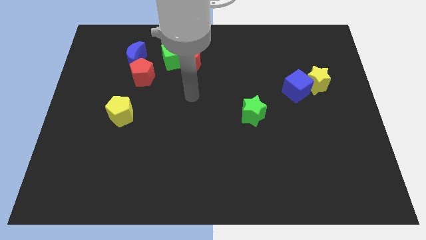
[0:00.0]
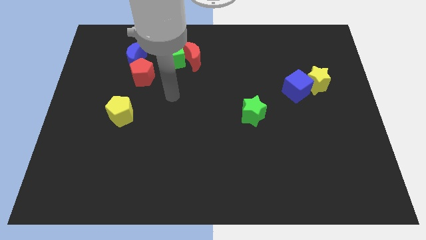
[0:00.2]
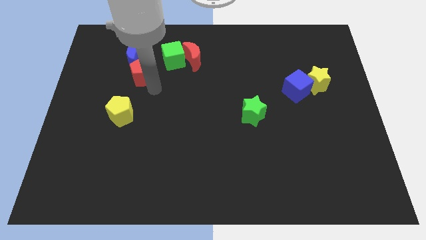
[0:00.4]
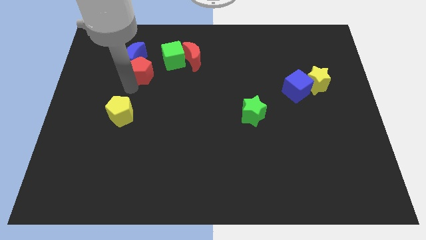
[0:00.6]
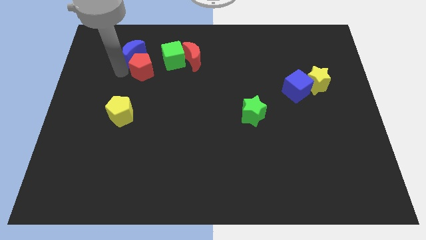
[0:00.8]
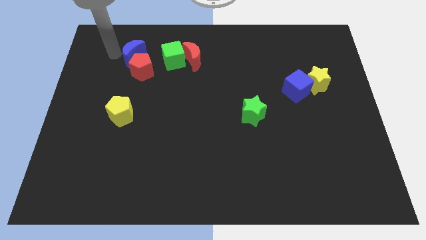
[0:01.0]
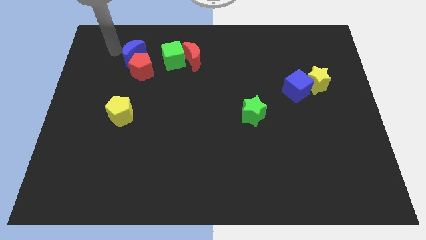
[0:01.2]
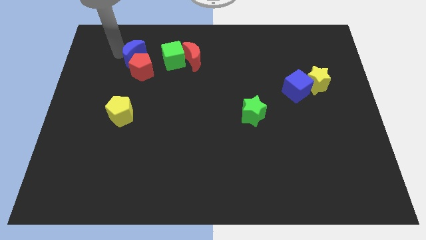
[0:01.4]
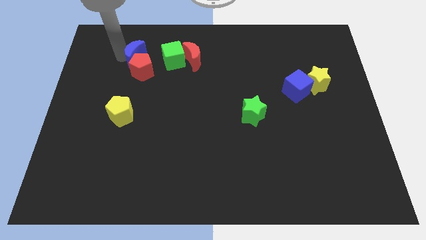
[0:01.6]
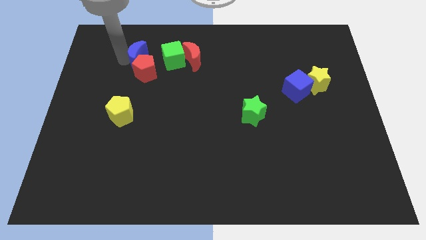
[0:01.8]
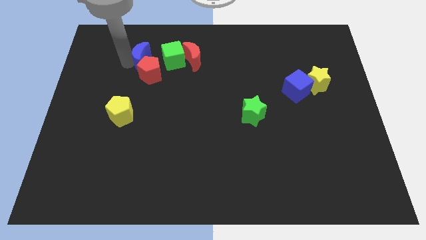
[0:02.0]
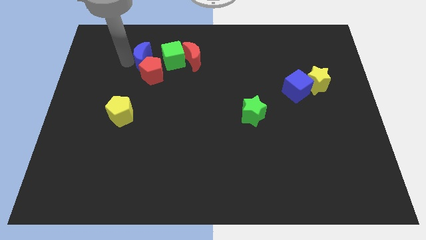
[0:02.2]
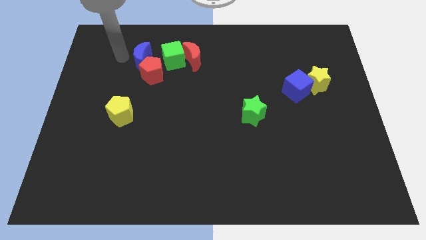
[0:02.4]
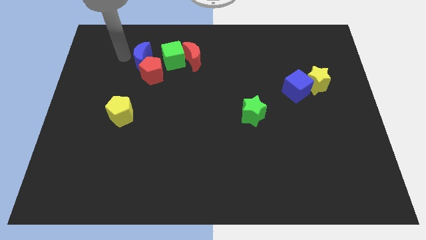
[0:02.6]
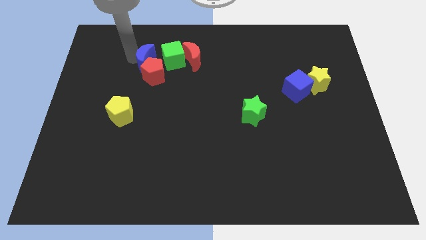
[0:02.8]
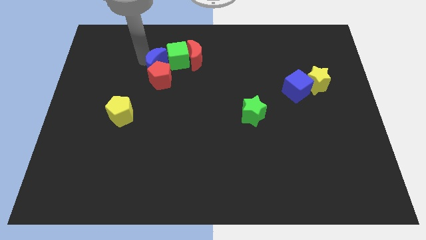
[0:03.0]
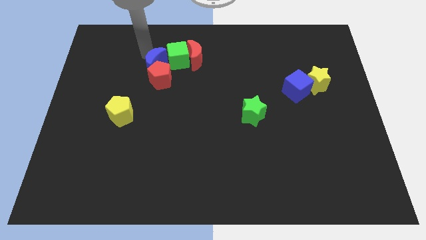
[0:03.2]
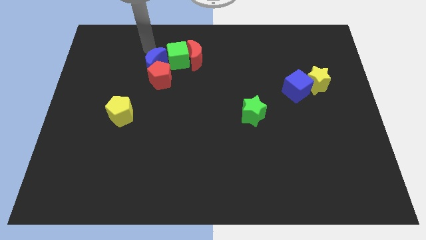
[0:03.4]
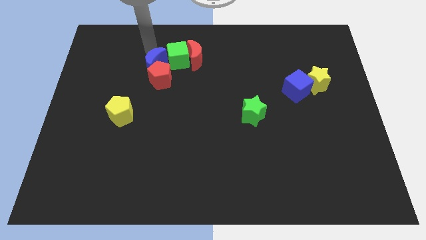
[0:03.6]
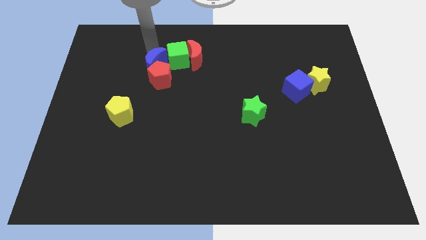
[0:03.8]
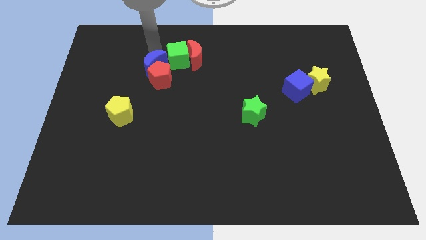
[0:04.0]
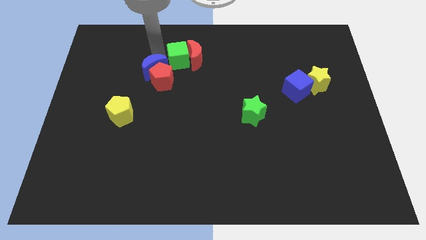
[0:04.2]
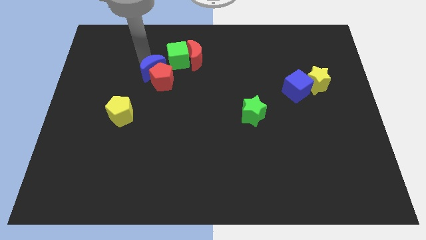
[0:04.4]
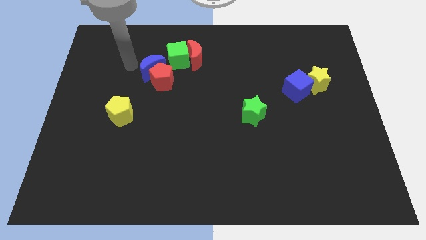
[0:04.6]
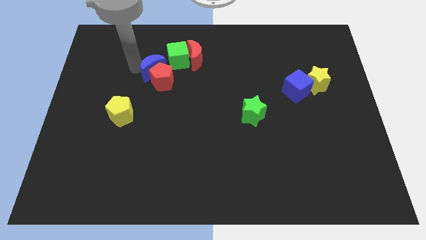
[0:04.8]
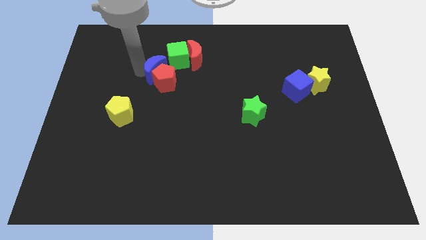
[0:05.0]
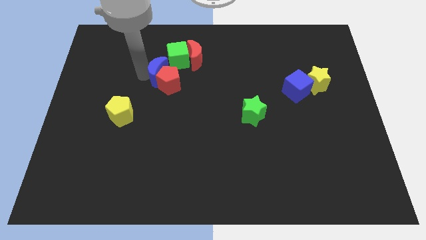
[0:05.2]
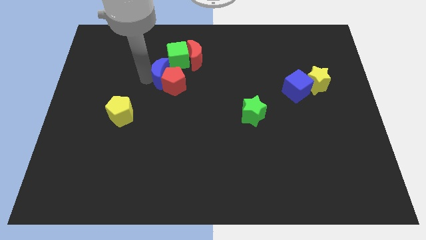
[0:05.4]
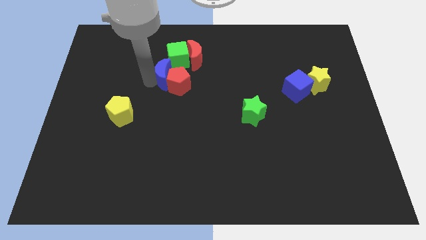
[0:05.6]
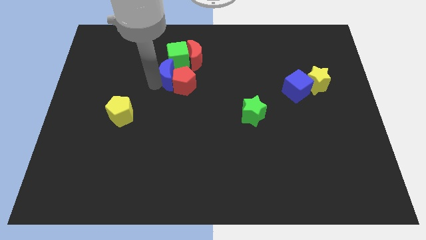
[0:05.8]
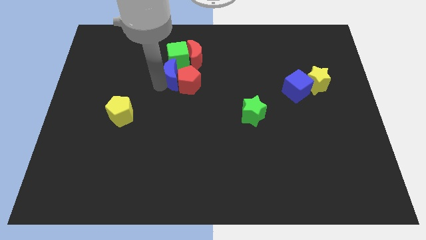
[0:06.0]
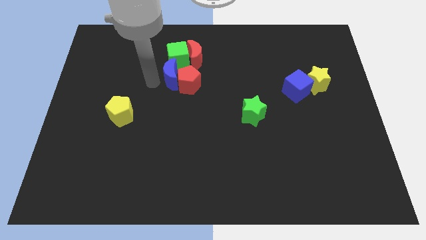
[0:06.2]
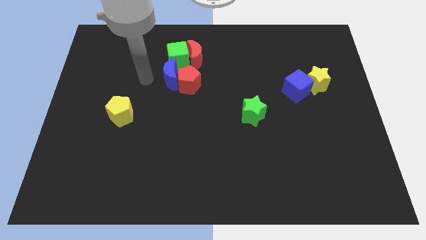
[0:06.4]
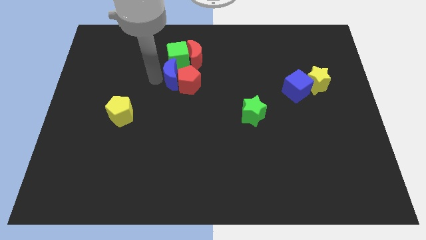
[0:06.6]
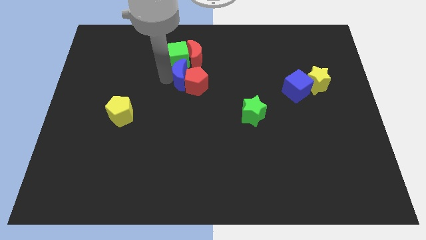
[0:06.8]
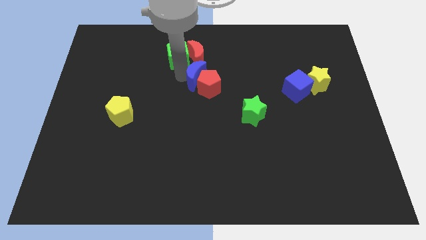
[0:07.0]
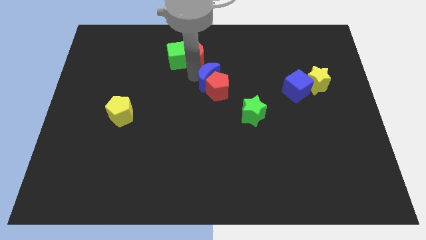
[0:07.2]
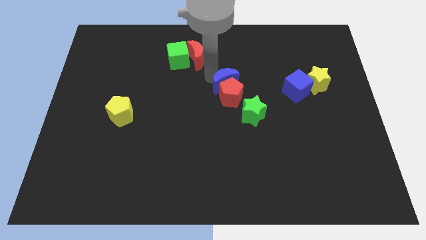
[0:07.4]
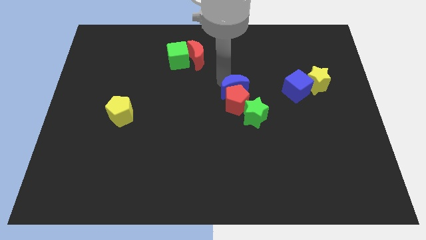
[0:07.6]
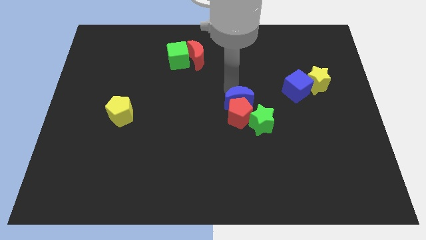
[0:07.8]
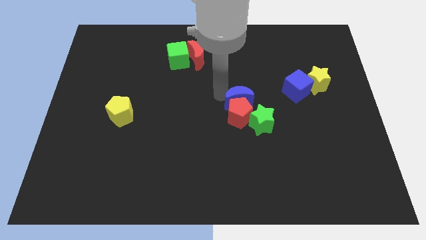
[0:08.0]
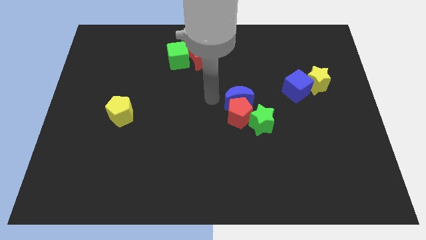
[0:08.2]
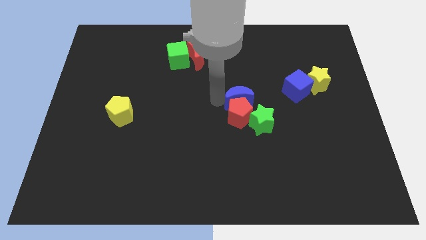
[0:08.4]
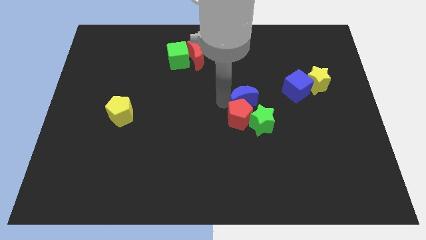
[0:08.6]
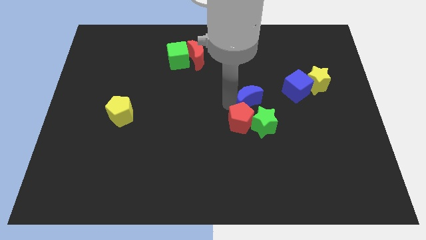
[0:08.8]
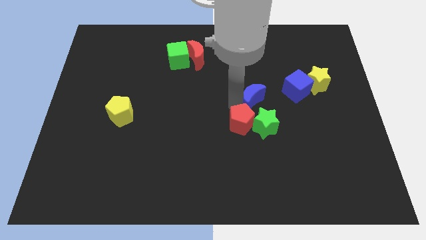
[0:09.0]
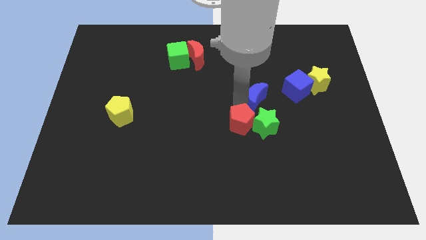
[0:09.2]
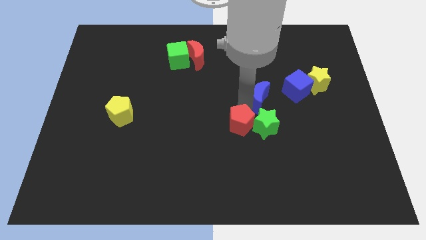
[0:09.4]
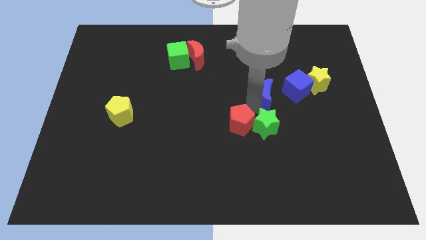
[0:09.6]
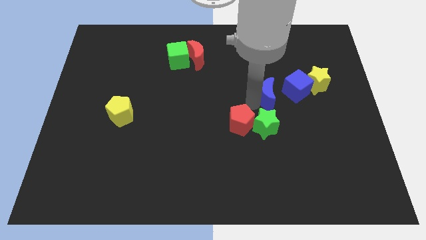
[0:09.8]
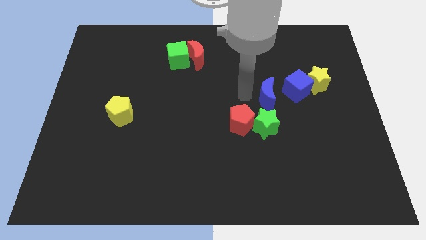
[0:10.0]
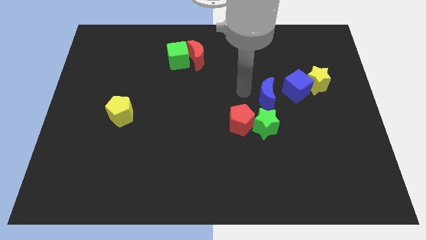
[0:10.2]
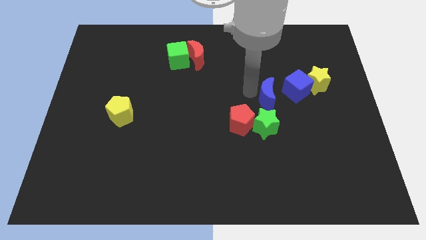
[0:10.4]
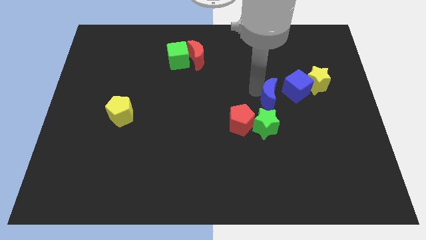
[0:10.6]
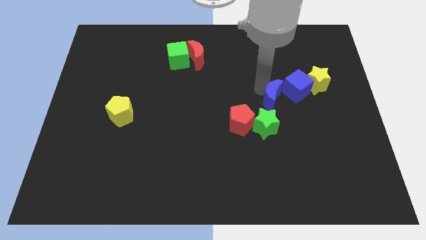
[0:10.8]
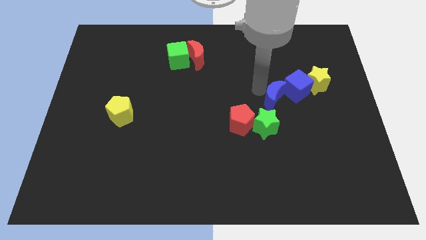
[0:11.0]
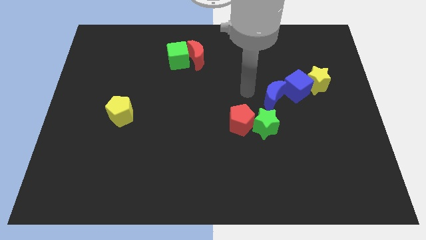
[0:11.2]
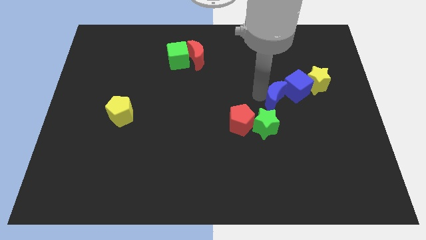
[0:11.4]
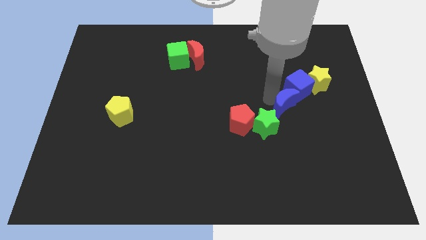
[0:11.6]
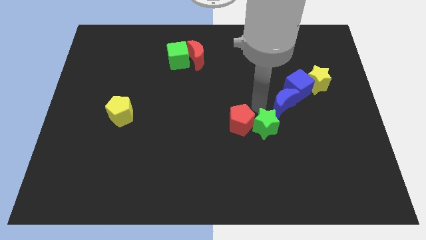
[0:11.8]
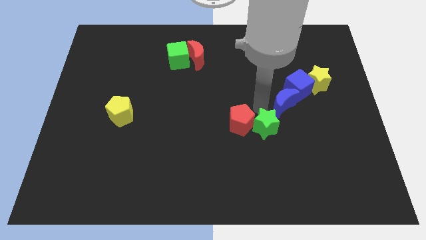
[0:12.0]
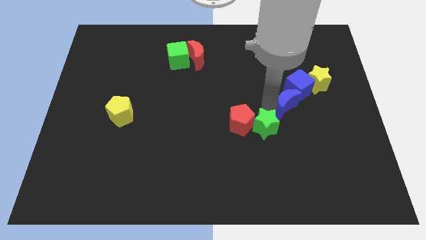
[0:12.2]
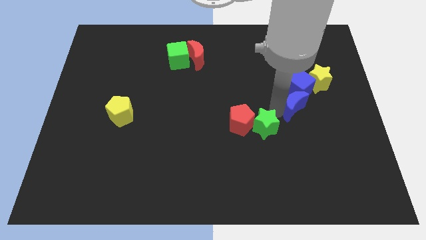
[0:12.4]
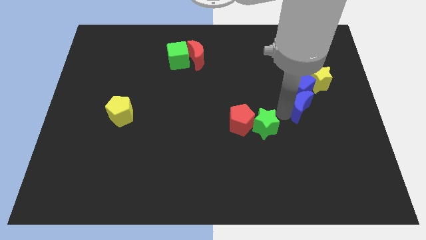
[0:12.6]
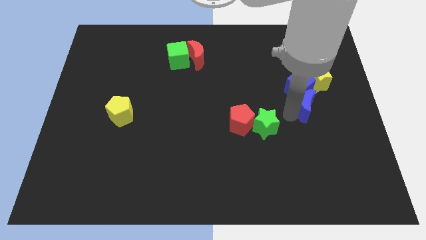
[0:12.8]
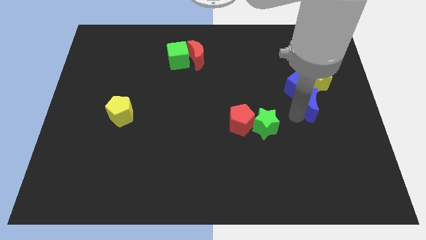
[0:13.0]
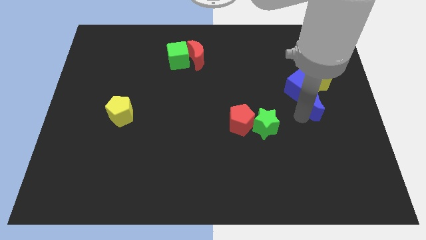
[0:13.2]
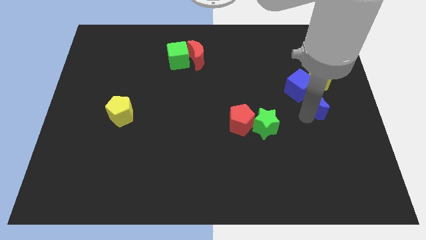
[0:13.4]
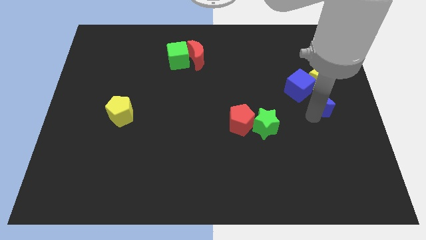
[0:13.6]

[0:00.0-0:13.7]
put the blue moon to the right side
